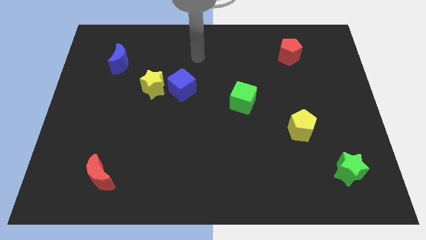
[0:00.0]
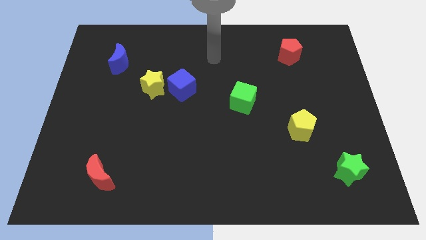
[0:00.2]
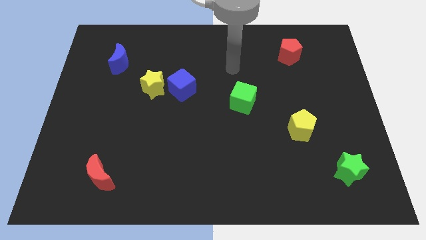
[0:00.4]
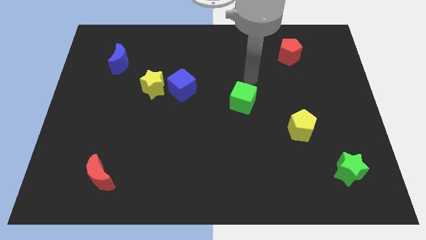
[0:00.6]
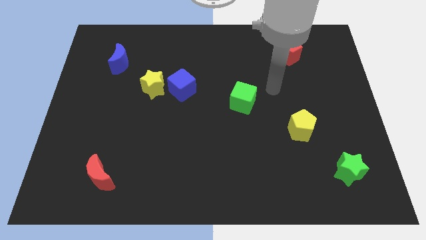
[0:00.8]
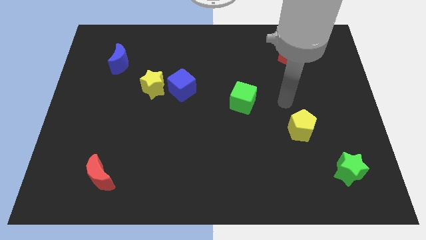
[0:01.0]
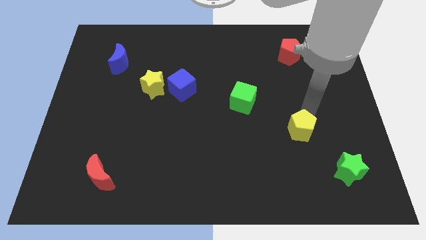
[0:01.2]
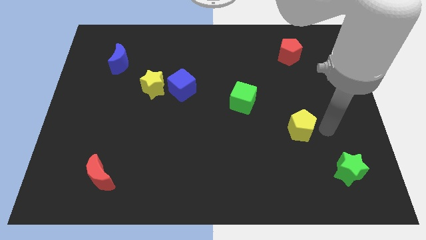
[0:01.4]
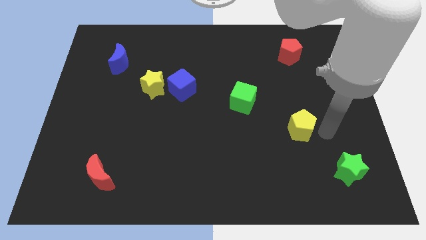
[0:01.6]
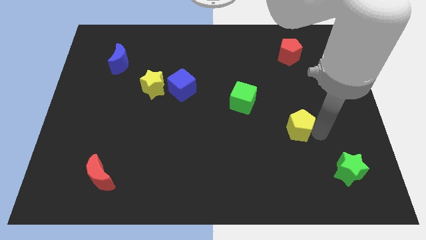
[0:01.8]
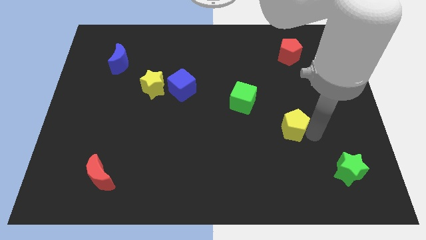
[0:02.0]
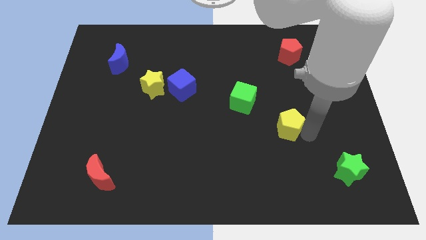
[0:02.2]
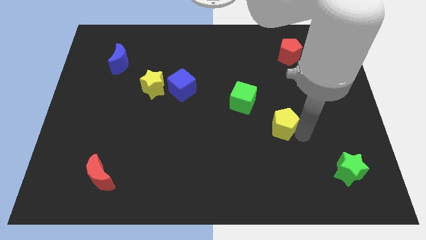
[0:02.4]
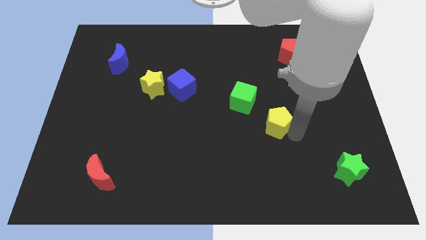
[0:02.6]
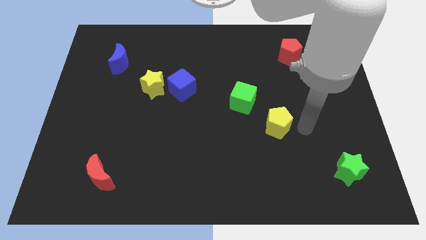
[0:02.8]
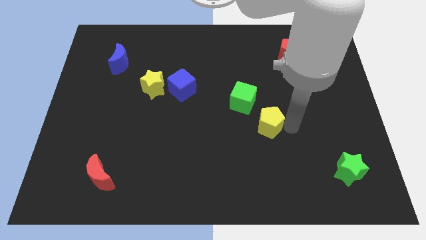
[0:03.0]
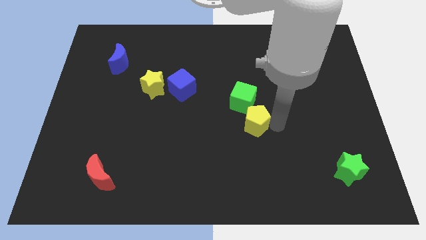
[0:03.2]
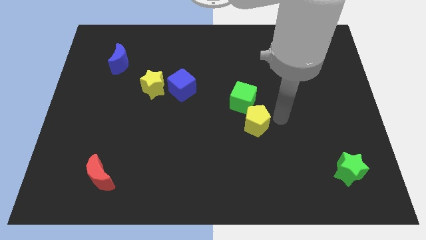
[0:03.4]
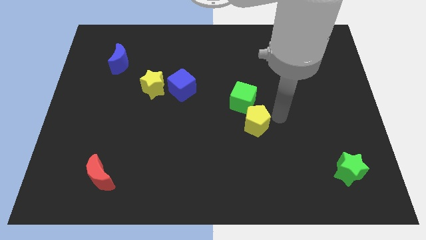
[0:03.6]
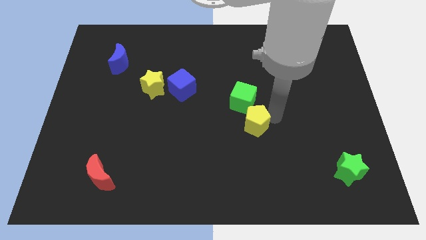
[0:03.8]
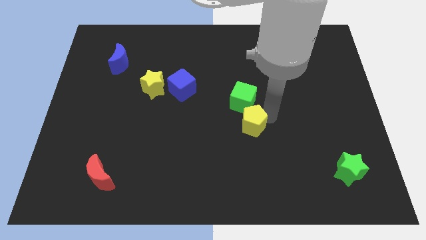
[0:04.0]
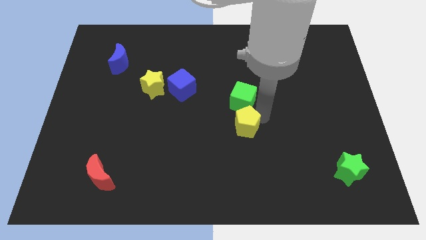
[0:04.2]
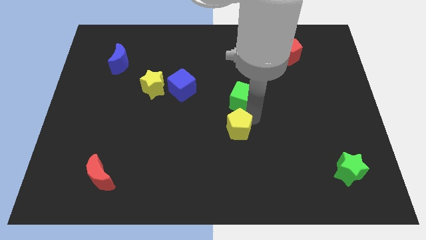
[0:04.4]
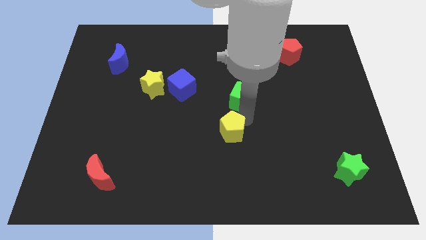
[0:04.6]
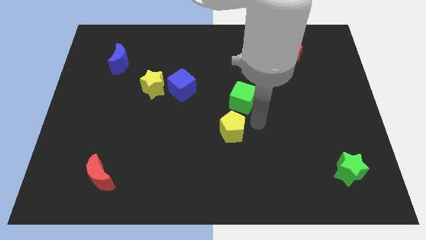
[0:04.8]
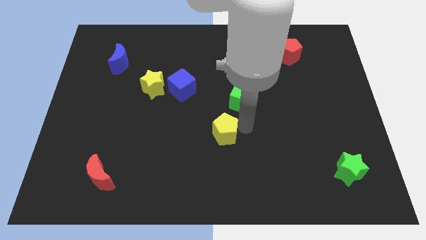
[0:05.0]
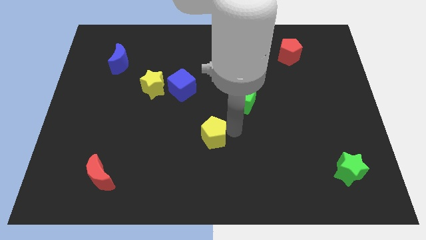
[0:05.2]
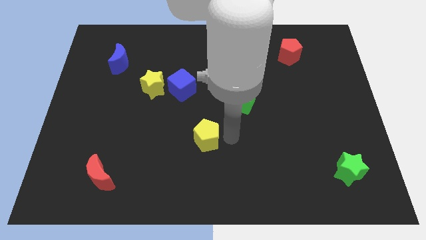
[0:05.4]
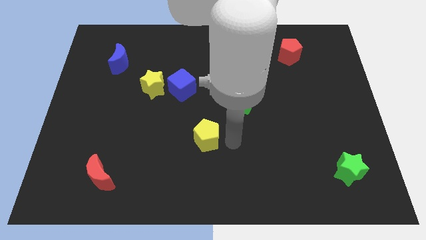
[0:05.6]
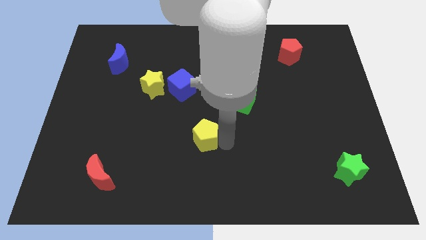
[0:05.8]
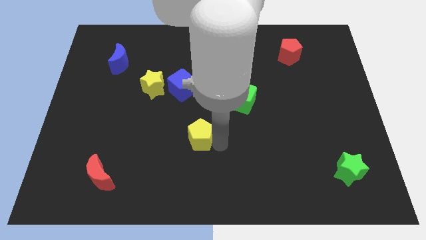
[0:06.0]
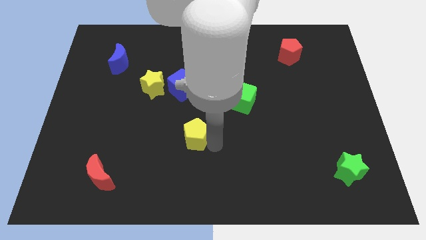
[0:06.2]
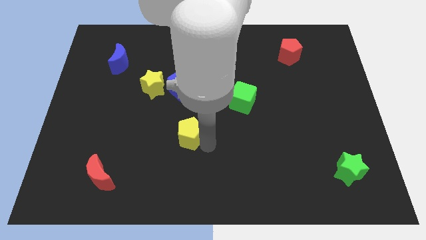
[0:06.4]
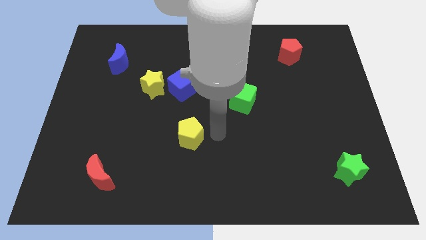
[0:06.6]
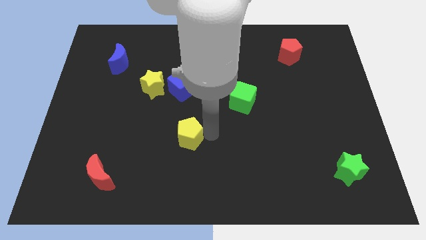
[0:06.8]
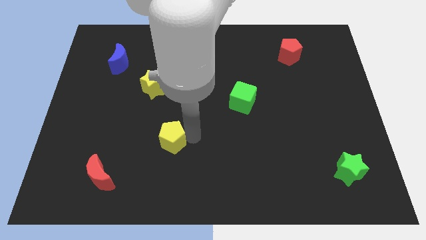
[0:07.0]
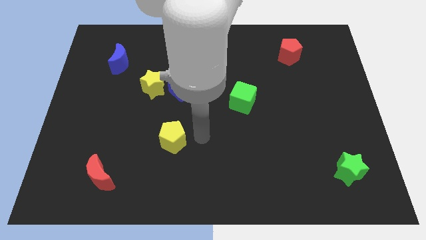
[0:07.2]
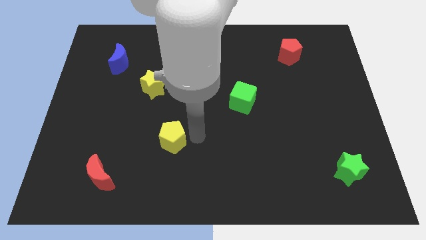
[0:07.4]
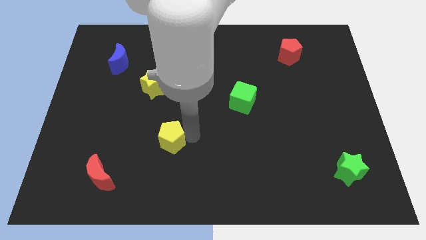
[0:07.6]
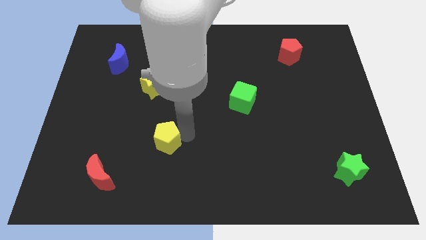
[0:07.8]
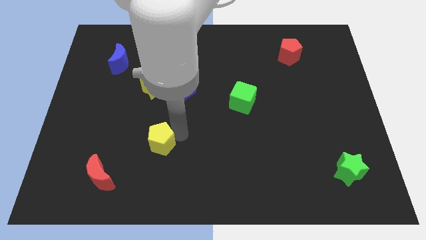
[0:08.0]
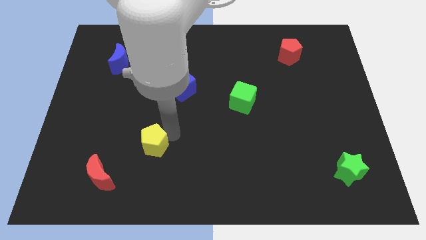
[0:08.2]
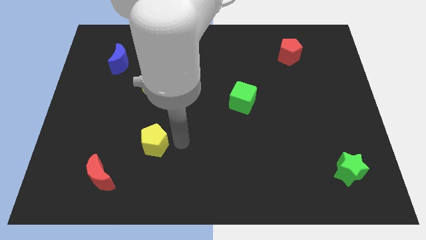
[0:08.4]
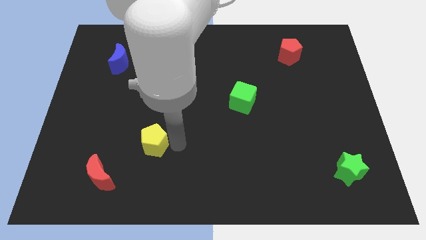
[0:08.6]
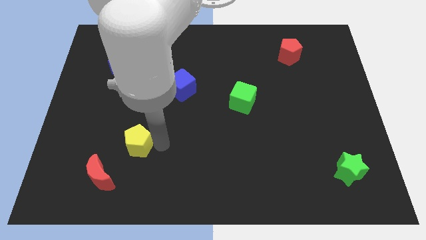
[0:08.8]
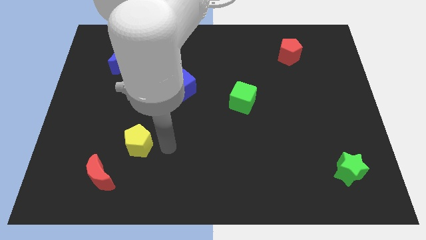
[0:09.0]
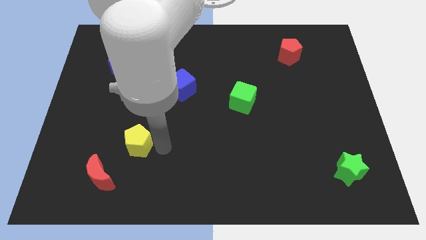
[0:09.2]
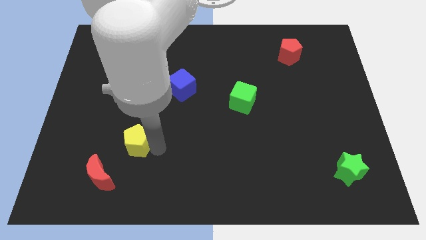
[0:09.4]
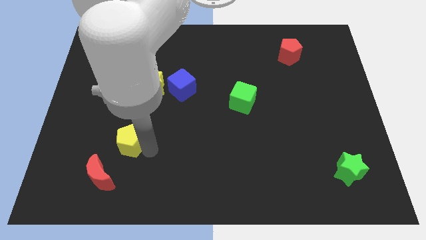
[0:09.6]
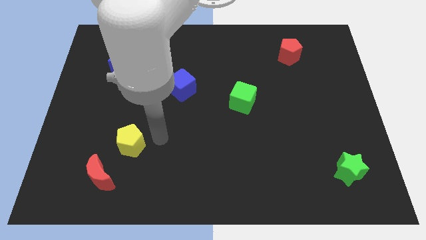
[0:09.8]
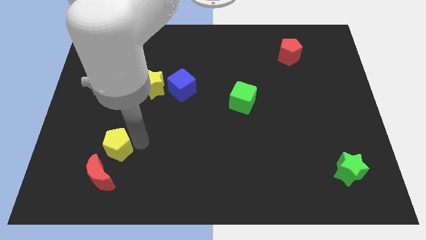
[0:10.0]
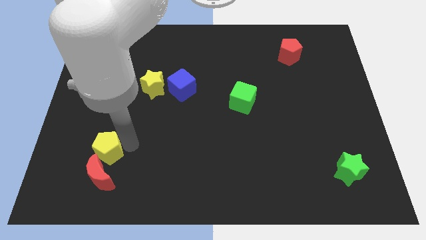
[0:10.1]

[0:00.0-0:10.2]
slide the yellow pentagon diagonally up and to the left of the red moon

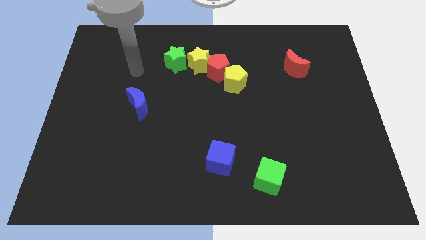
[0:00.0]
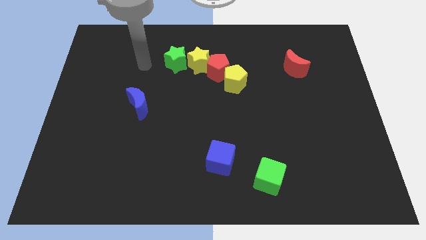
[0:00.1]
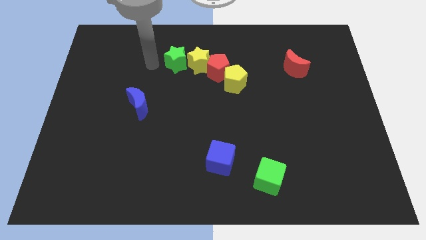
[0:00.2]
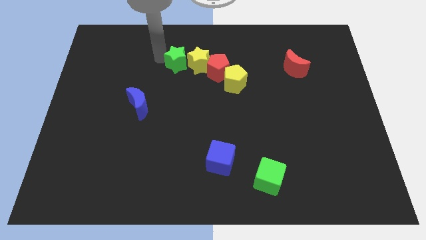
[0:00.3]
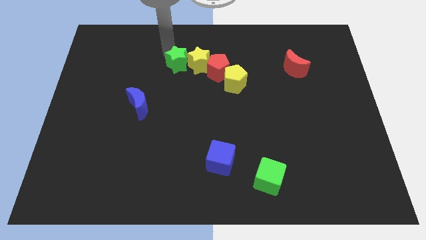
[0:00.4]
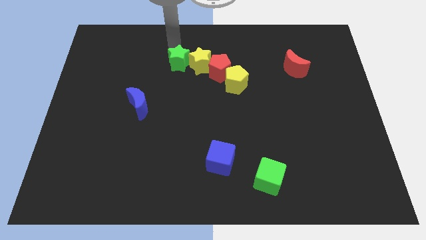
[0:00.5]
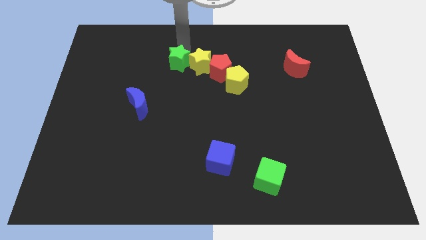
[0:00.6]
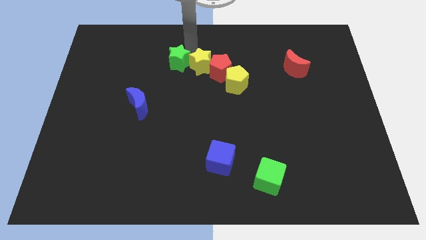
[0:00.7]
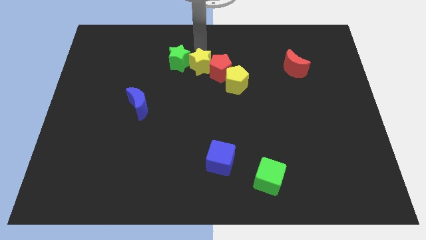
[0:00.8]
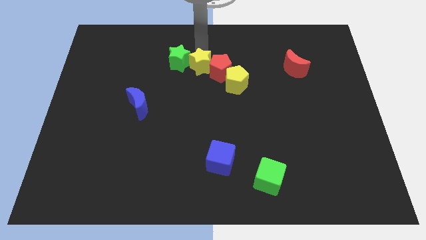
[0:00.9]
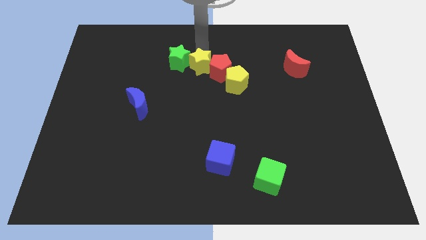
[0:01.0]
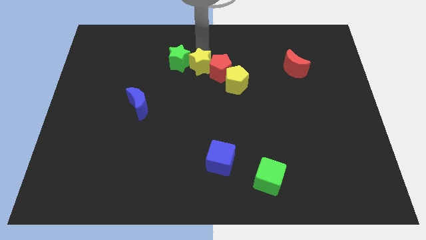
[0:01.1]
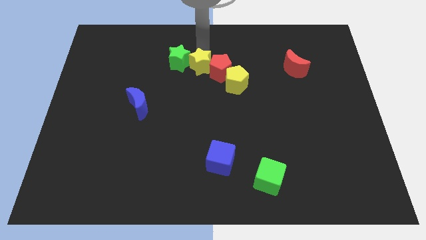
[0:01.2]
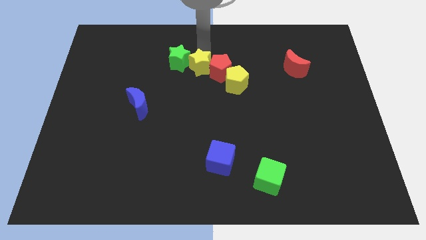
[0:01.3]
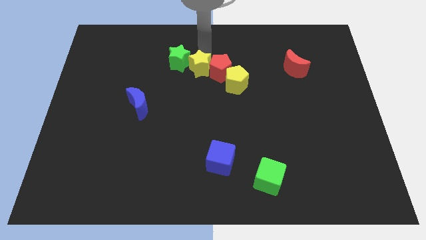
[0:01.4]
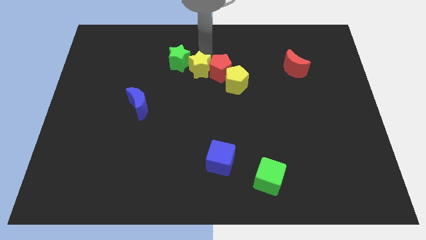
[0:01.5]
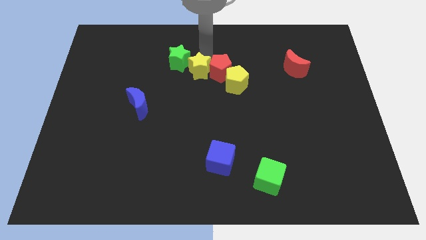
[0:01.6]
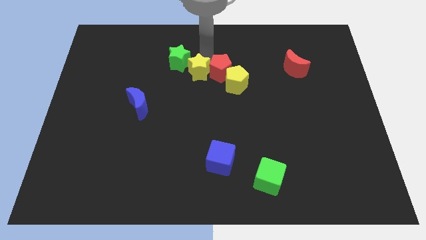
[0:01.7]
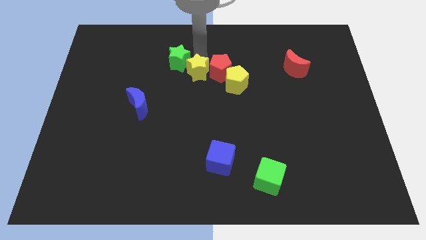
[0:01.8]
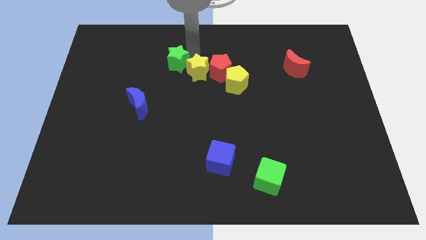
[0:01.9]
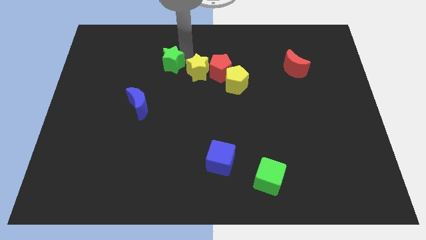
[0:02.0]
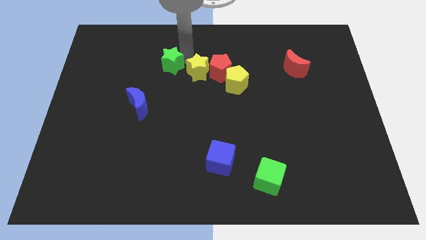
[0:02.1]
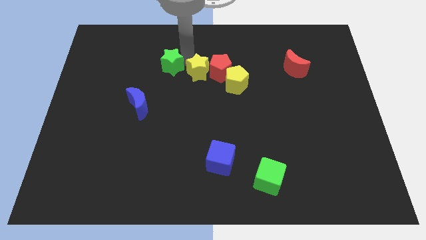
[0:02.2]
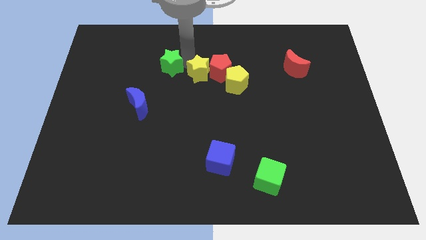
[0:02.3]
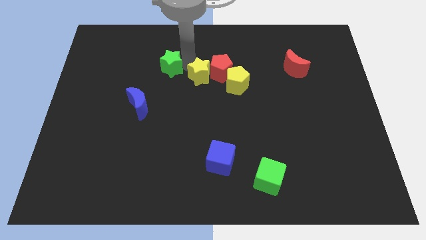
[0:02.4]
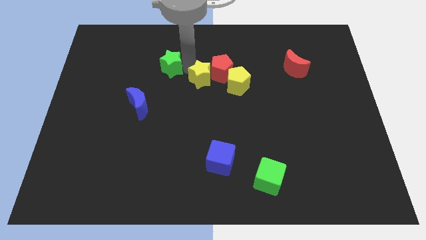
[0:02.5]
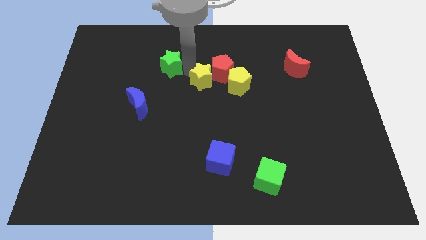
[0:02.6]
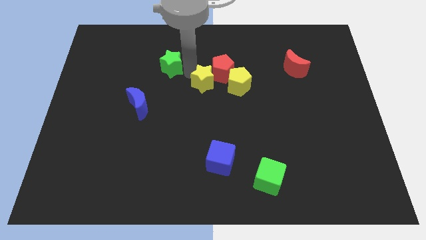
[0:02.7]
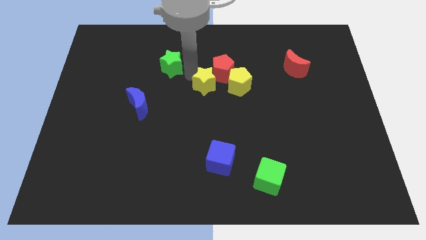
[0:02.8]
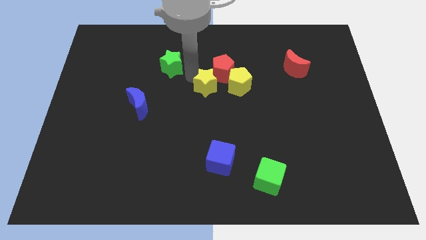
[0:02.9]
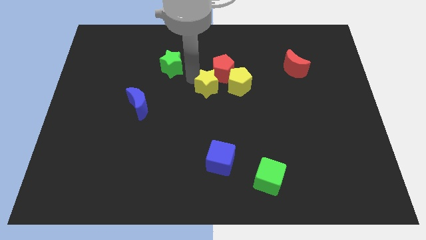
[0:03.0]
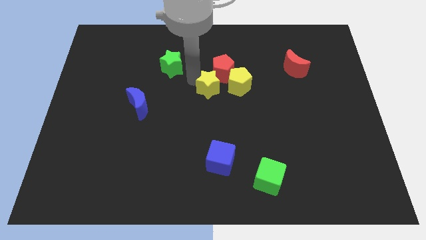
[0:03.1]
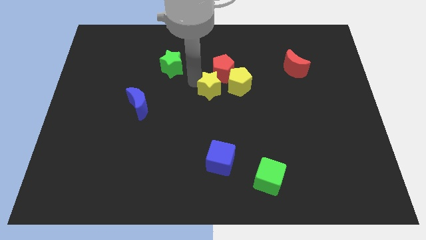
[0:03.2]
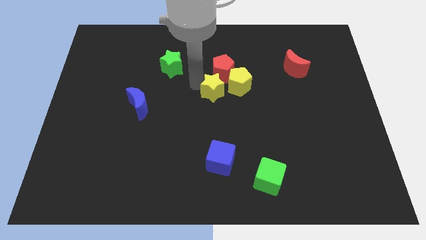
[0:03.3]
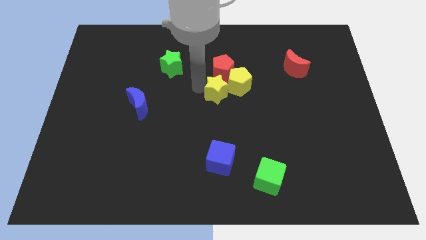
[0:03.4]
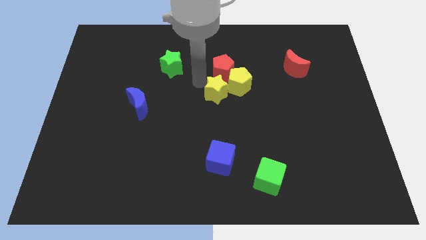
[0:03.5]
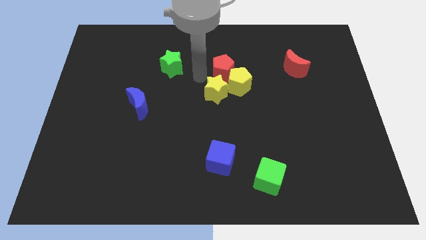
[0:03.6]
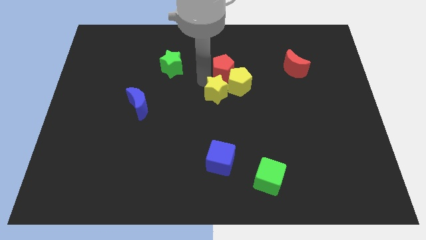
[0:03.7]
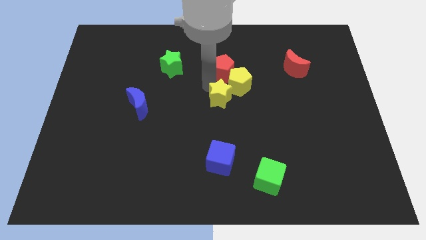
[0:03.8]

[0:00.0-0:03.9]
move the yellow star to the bottom of the yellow pentagon
